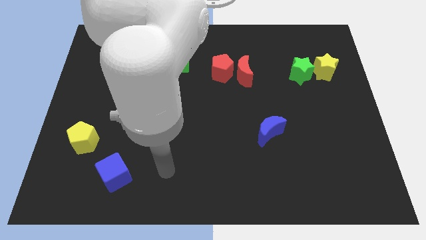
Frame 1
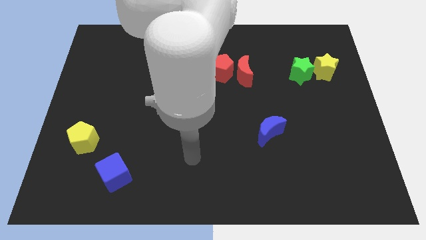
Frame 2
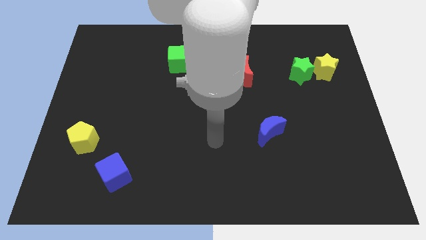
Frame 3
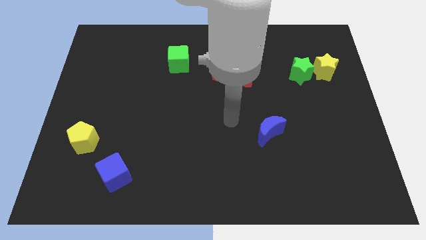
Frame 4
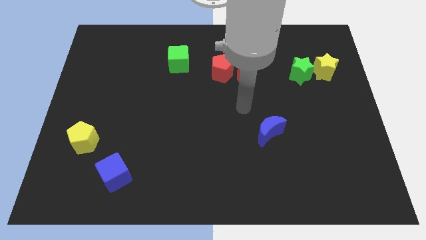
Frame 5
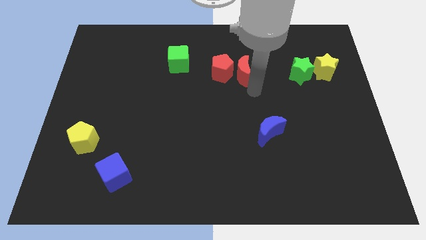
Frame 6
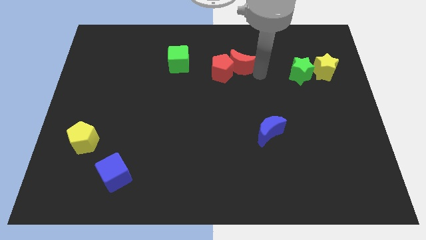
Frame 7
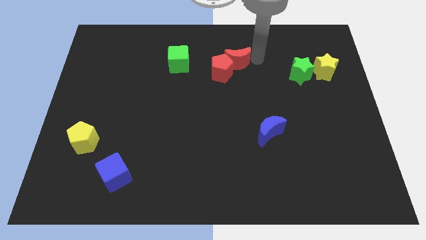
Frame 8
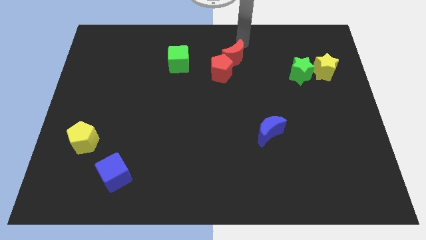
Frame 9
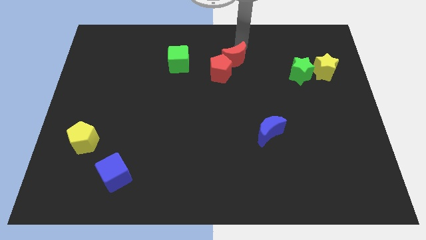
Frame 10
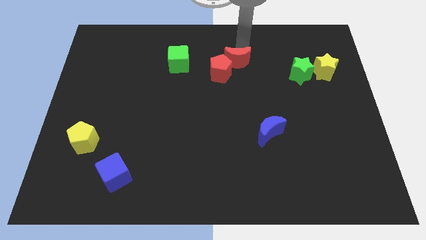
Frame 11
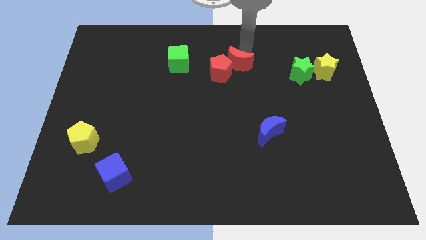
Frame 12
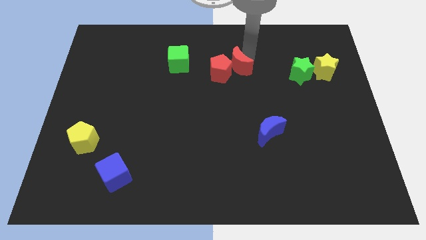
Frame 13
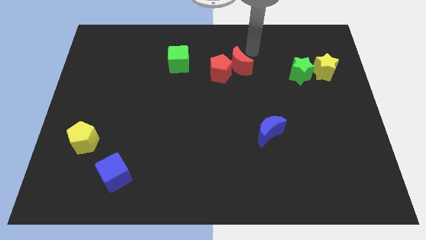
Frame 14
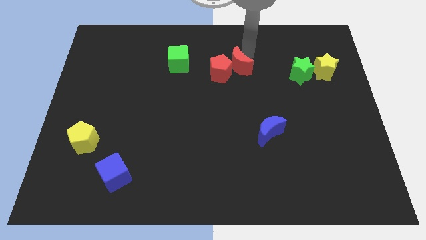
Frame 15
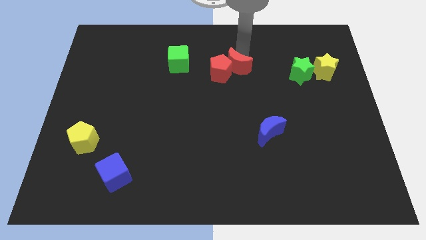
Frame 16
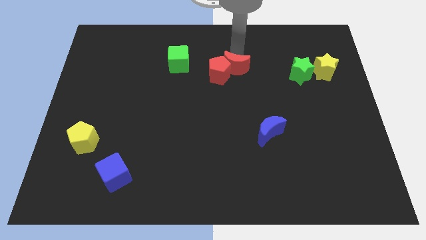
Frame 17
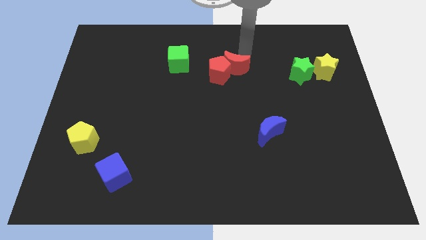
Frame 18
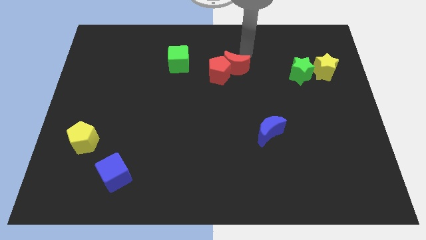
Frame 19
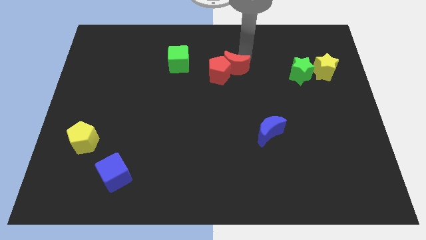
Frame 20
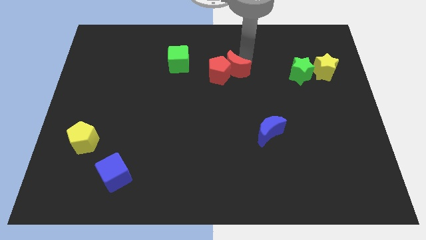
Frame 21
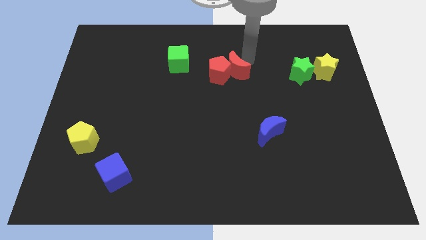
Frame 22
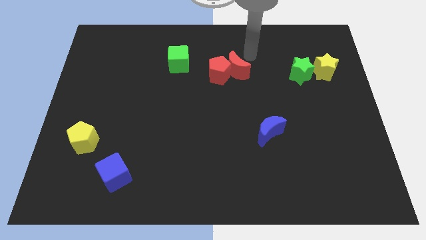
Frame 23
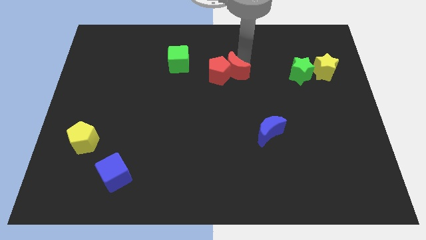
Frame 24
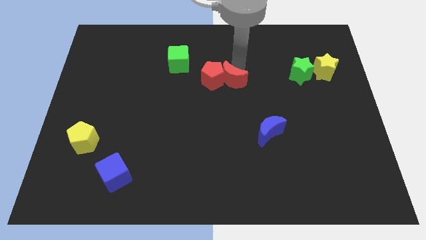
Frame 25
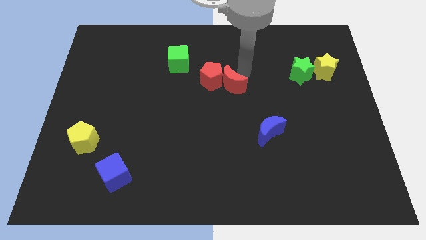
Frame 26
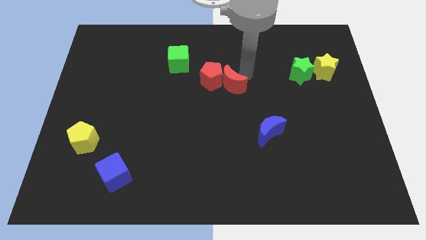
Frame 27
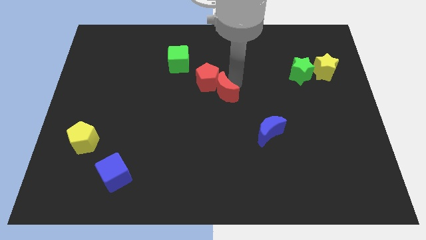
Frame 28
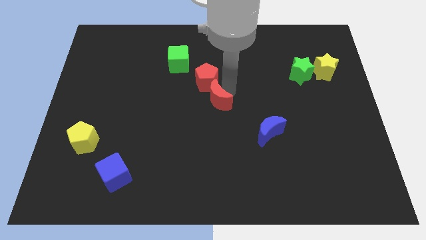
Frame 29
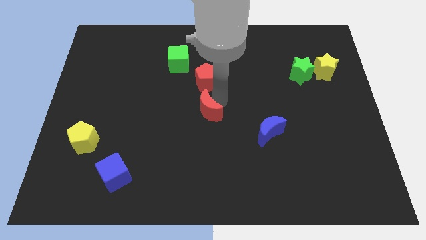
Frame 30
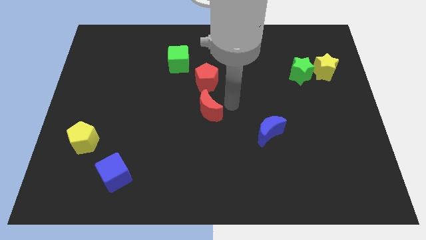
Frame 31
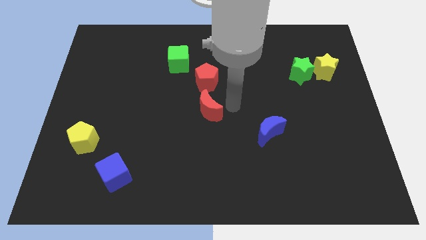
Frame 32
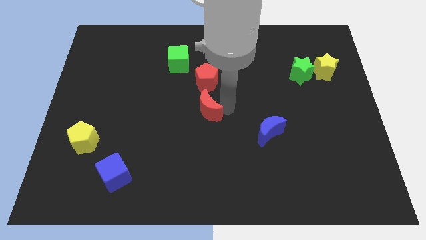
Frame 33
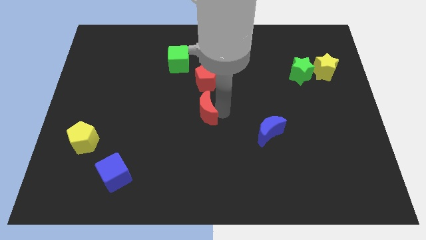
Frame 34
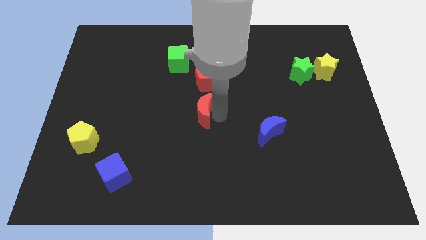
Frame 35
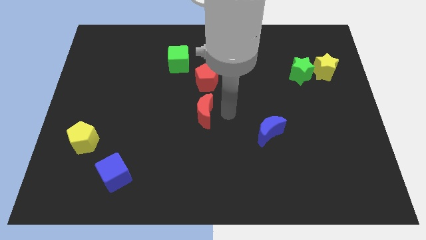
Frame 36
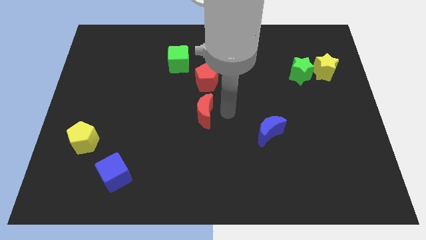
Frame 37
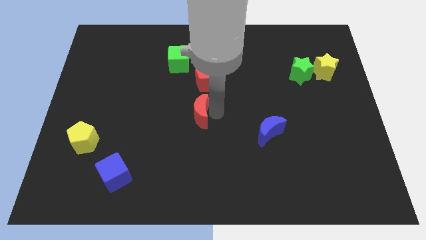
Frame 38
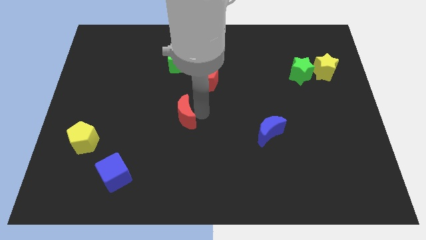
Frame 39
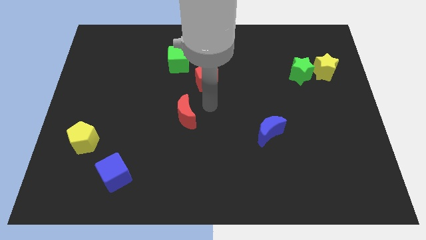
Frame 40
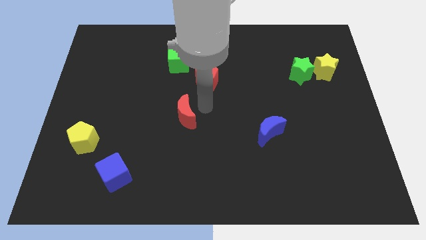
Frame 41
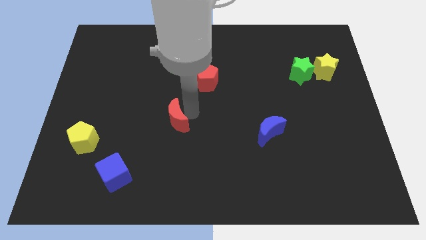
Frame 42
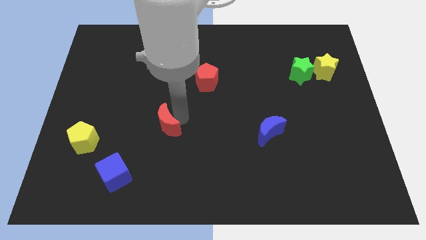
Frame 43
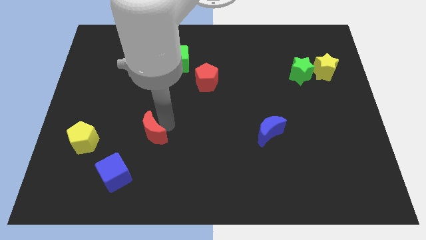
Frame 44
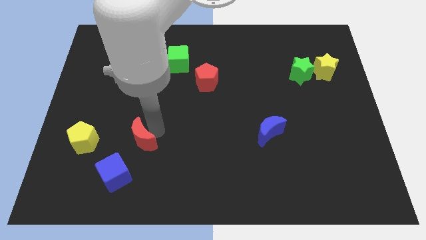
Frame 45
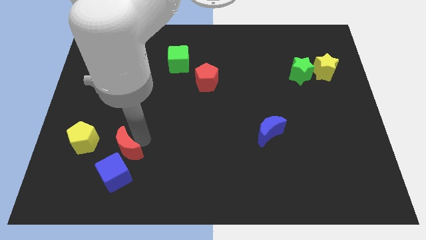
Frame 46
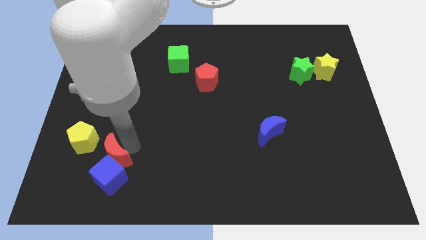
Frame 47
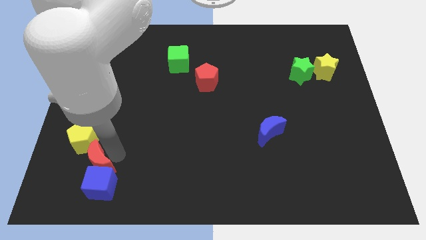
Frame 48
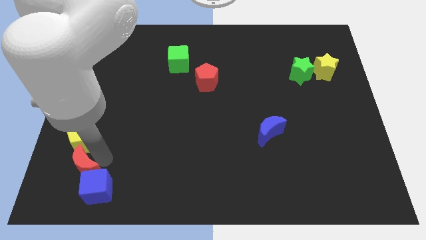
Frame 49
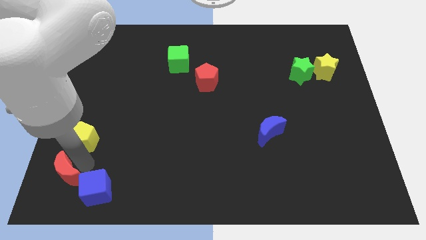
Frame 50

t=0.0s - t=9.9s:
move the red moon to the bottom left

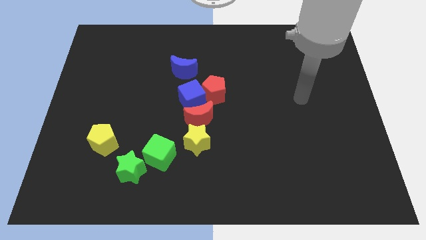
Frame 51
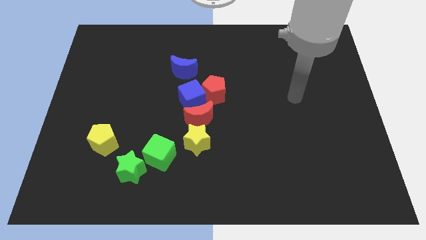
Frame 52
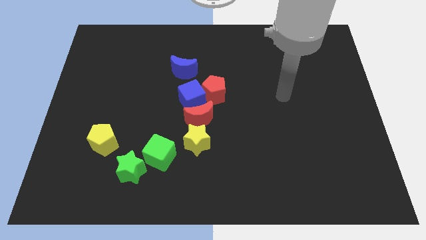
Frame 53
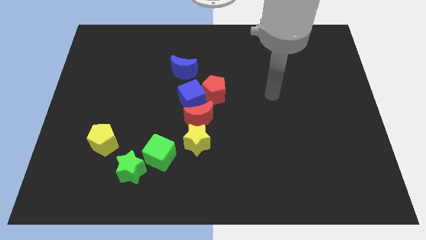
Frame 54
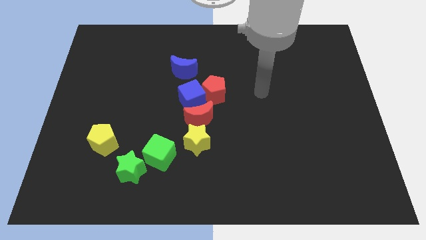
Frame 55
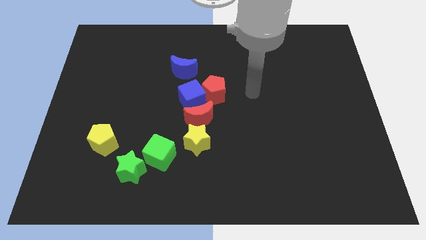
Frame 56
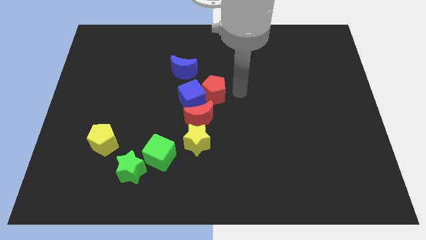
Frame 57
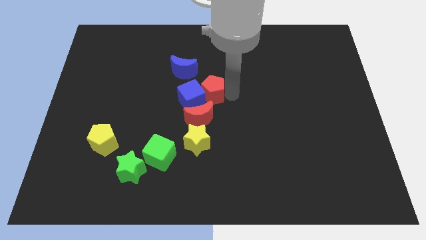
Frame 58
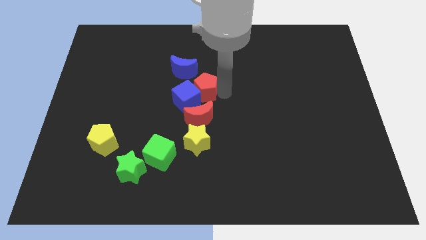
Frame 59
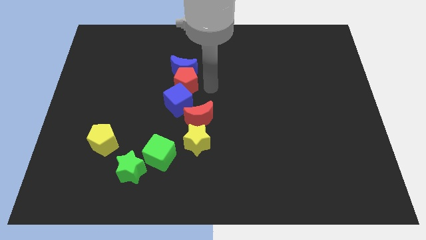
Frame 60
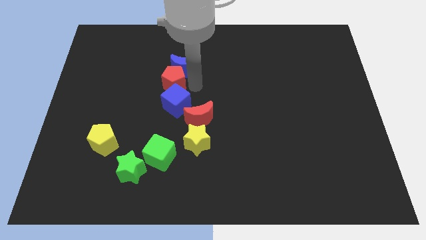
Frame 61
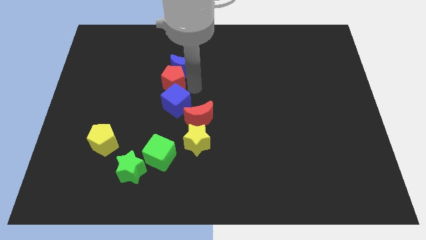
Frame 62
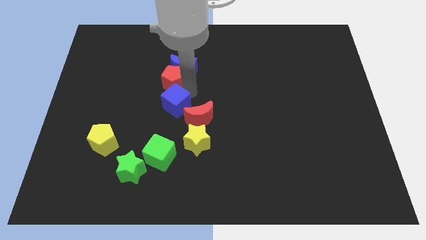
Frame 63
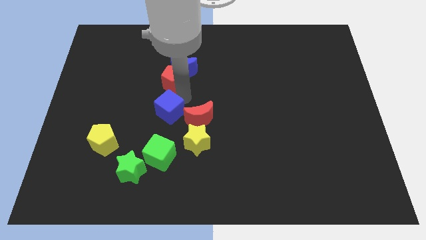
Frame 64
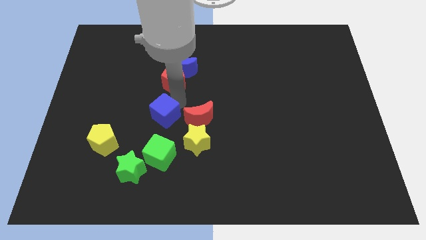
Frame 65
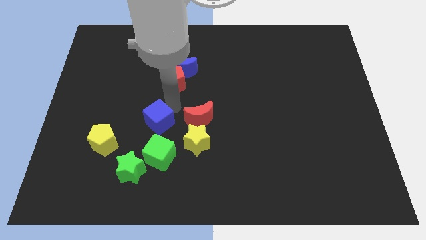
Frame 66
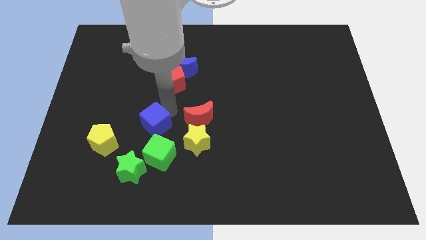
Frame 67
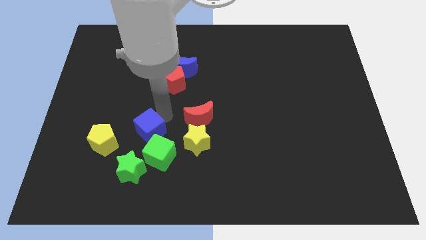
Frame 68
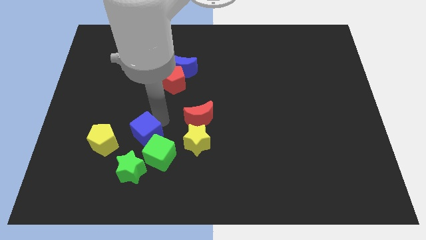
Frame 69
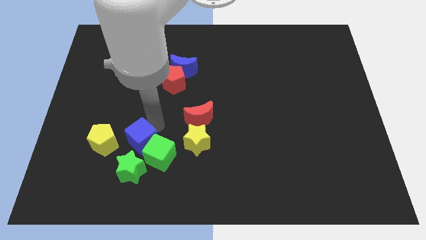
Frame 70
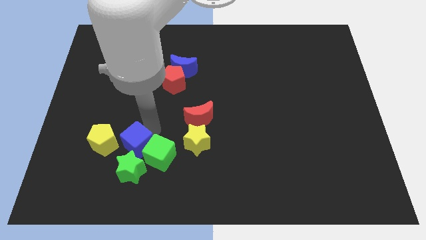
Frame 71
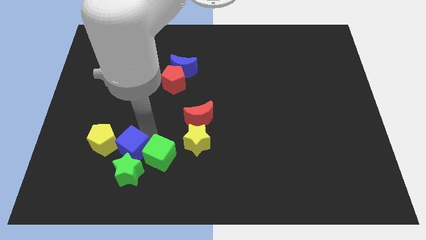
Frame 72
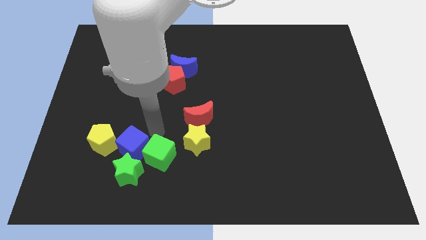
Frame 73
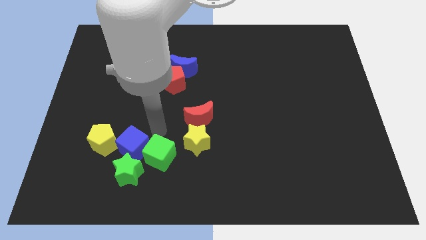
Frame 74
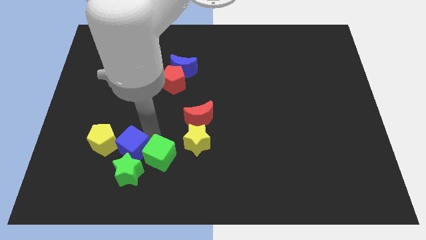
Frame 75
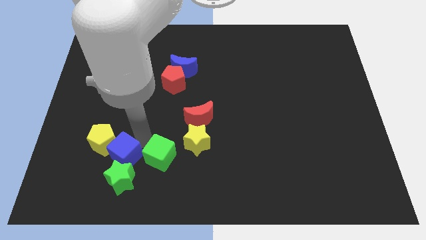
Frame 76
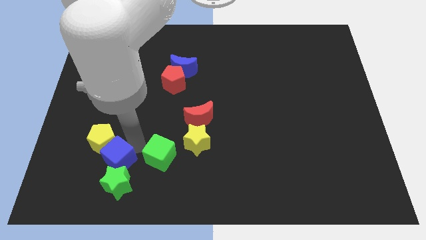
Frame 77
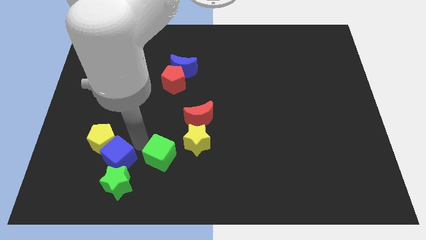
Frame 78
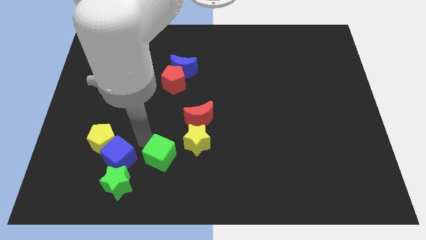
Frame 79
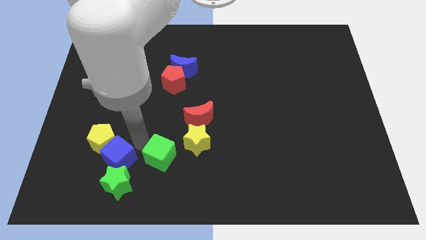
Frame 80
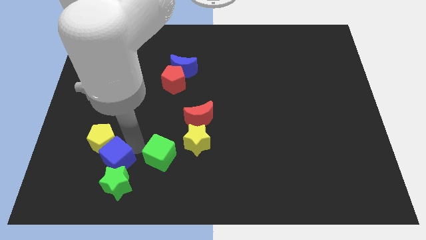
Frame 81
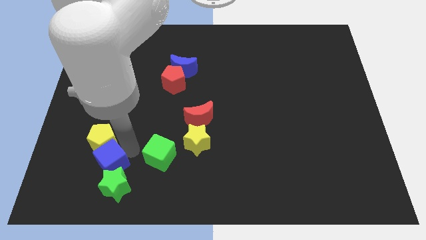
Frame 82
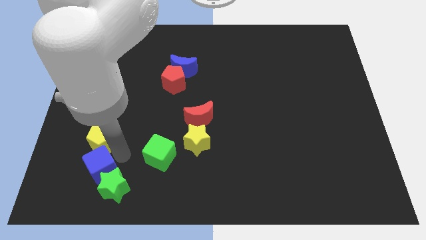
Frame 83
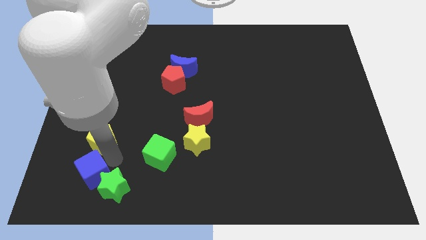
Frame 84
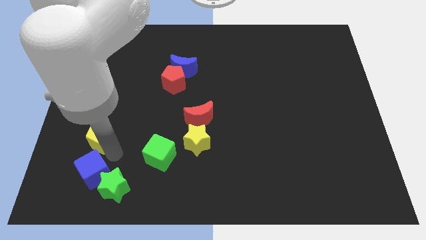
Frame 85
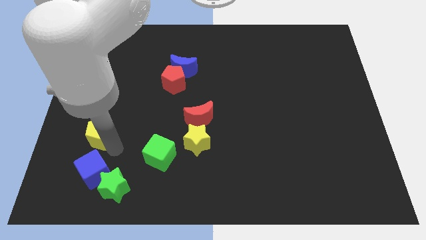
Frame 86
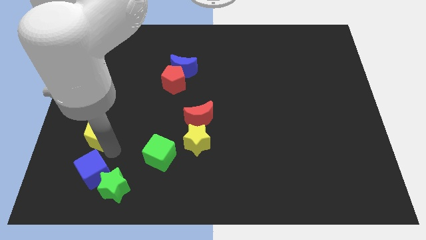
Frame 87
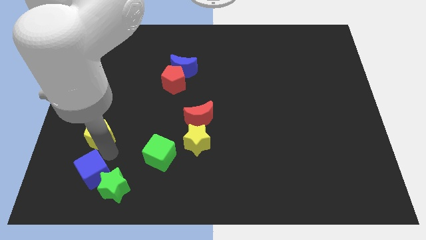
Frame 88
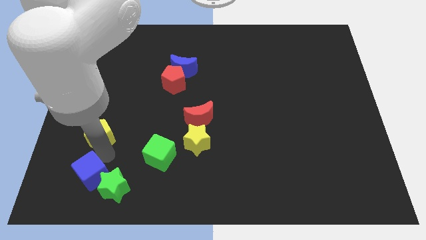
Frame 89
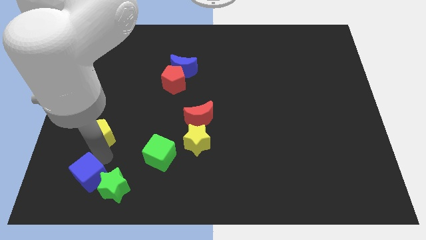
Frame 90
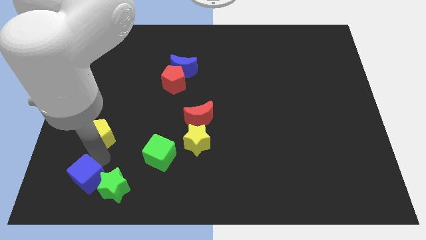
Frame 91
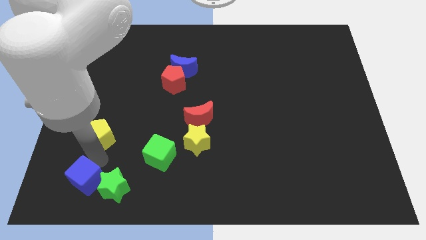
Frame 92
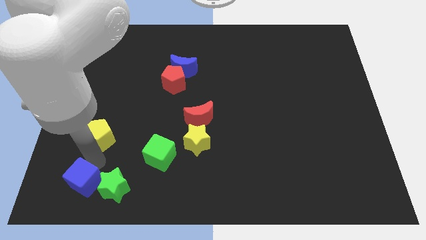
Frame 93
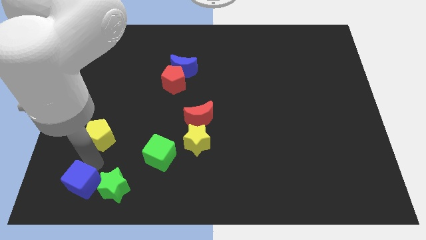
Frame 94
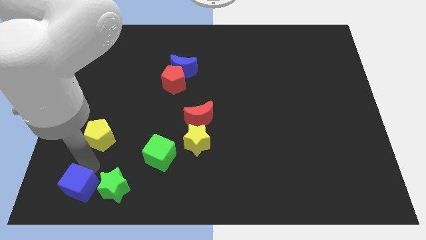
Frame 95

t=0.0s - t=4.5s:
push the blue cube to the lower left corner
